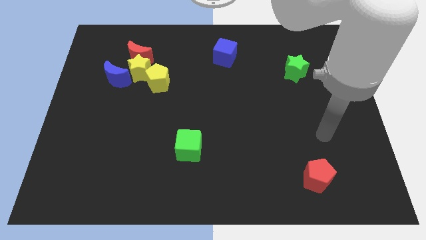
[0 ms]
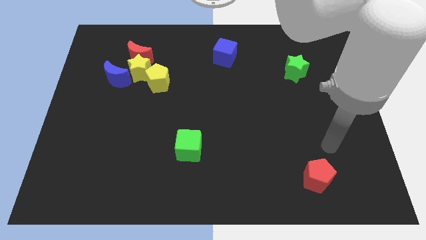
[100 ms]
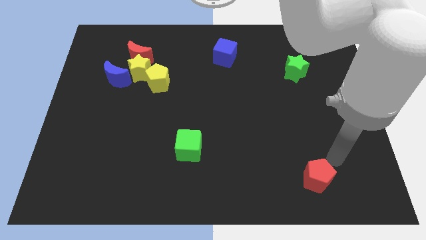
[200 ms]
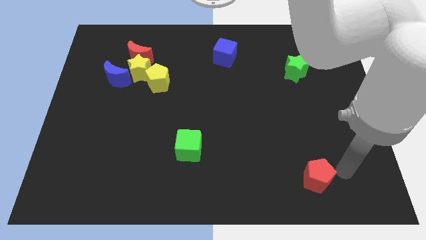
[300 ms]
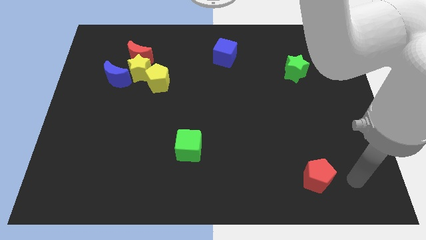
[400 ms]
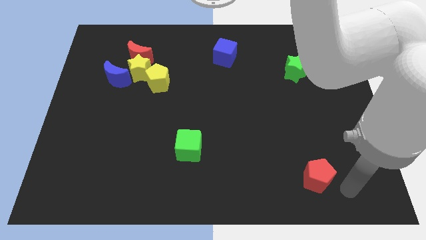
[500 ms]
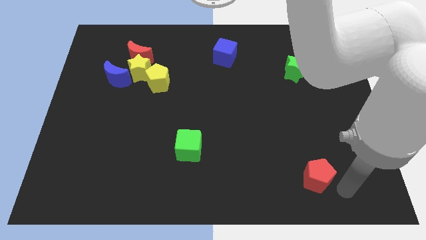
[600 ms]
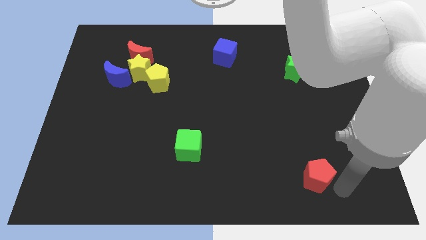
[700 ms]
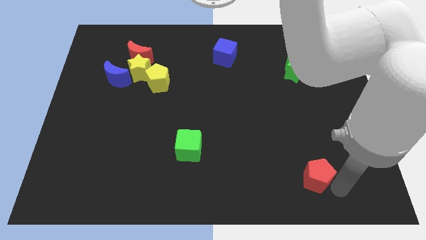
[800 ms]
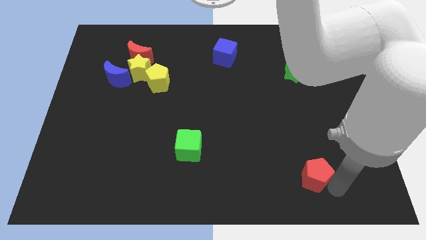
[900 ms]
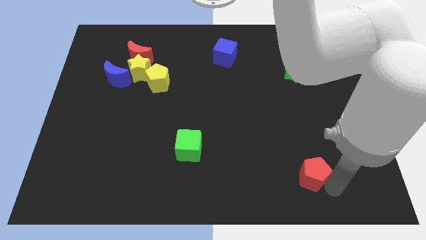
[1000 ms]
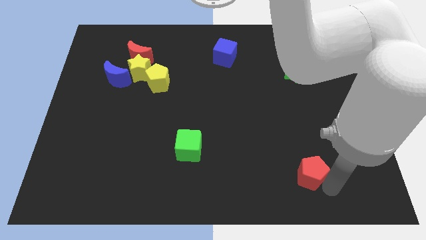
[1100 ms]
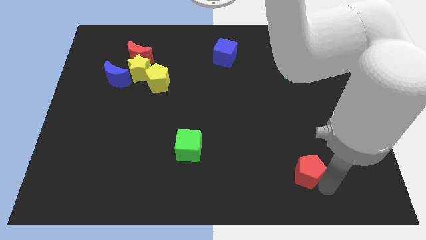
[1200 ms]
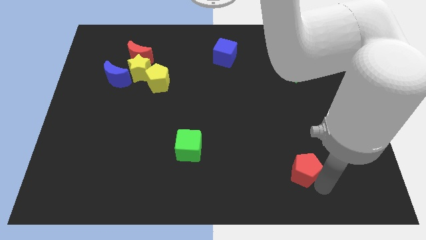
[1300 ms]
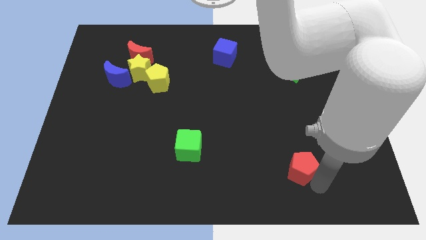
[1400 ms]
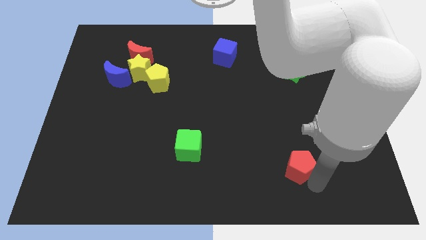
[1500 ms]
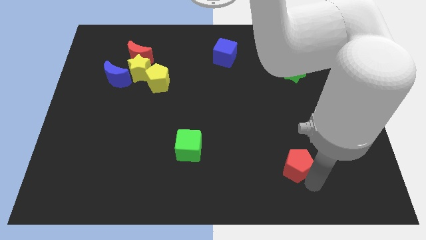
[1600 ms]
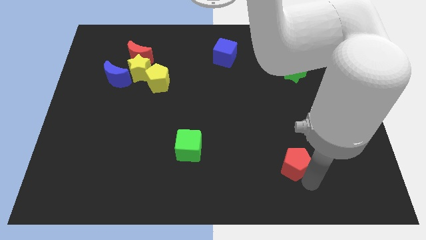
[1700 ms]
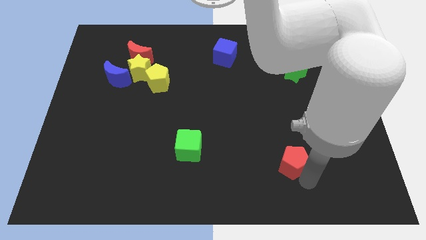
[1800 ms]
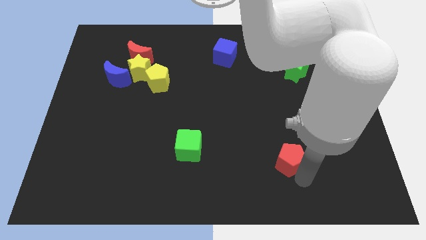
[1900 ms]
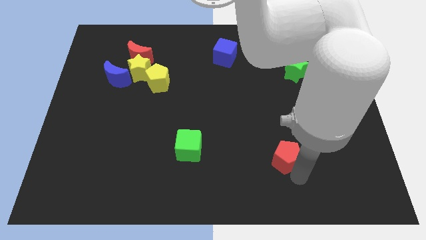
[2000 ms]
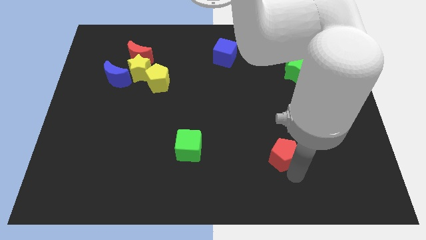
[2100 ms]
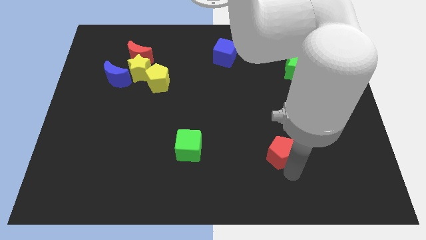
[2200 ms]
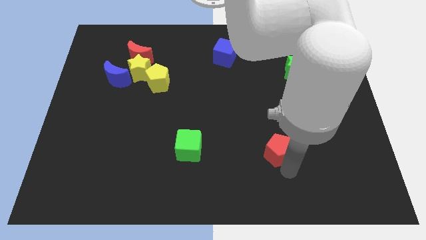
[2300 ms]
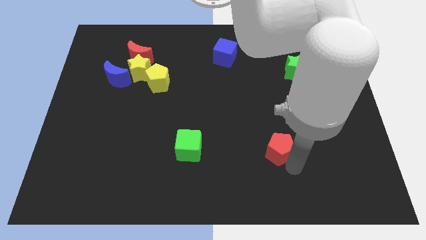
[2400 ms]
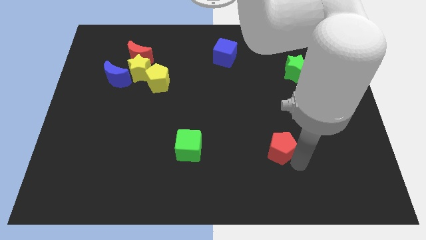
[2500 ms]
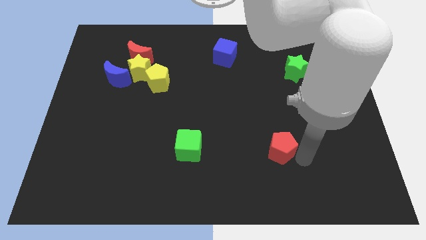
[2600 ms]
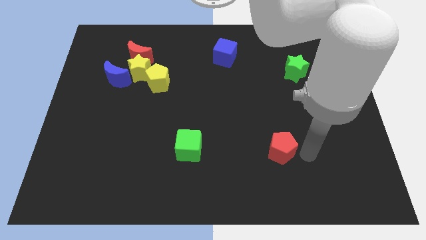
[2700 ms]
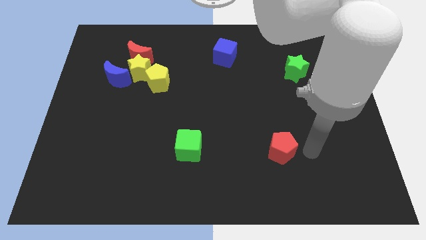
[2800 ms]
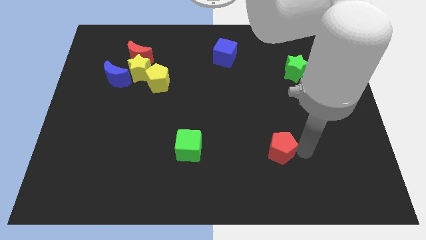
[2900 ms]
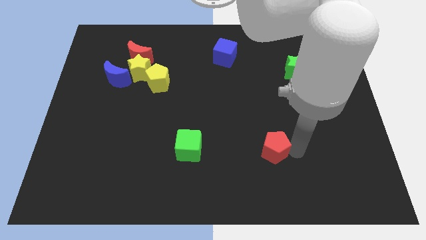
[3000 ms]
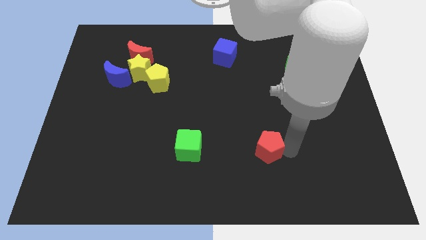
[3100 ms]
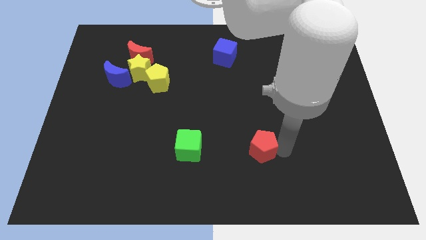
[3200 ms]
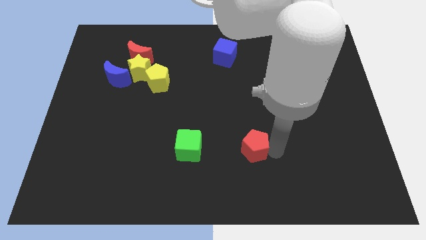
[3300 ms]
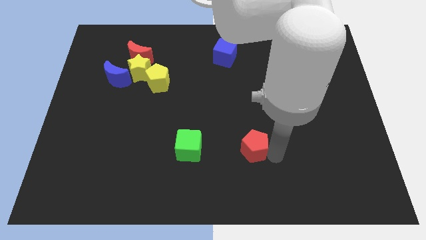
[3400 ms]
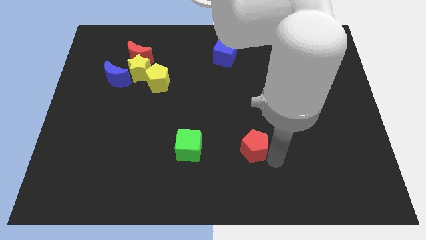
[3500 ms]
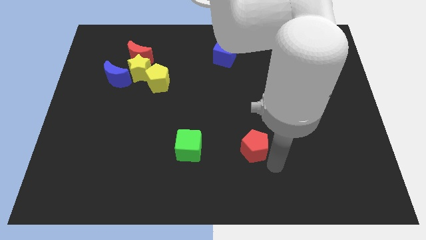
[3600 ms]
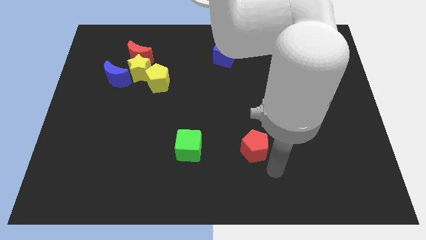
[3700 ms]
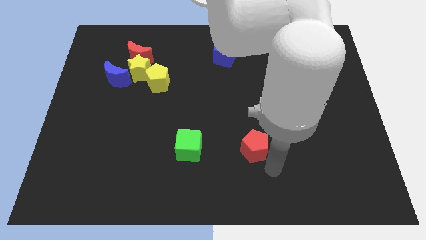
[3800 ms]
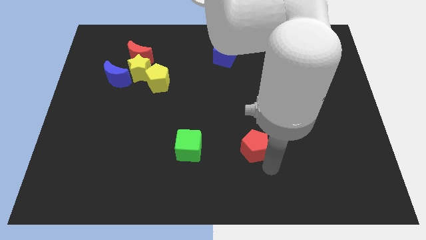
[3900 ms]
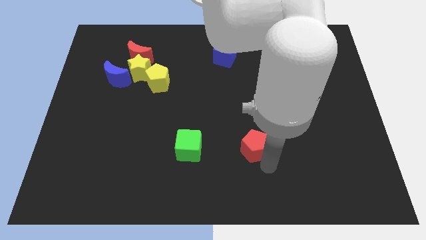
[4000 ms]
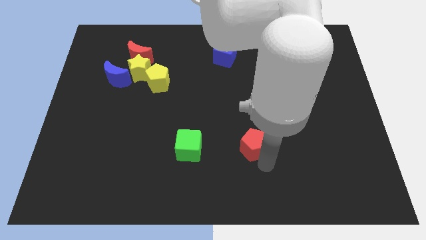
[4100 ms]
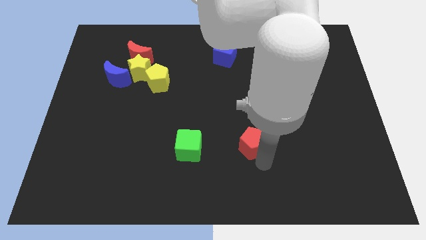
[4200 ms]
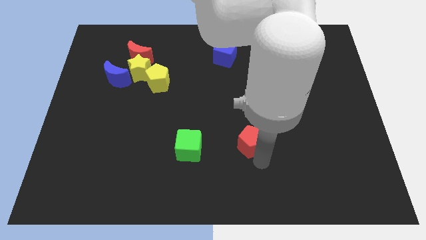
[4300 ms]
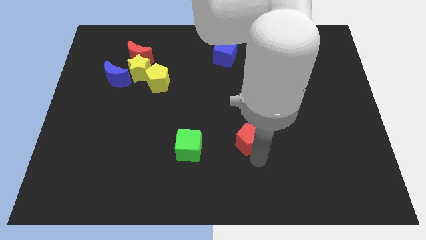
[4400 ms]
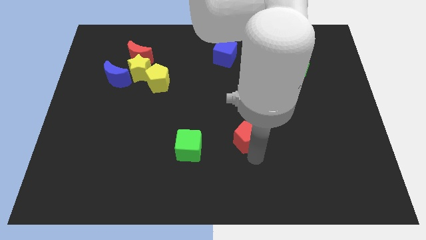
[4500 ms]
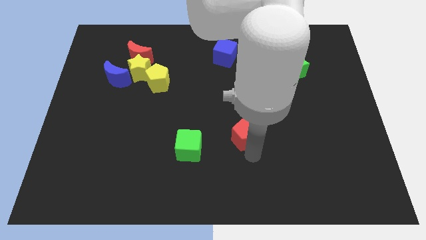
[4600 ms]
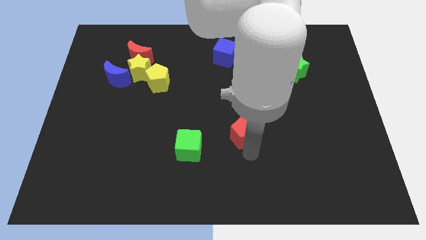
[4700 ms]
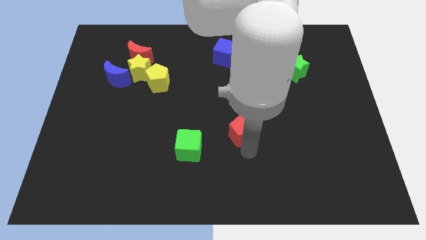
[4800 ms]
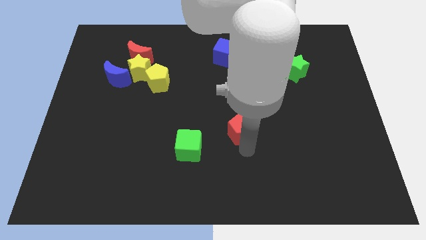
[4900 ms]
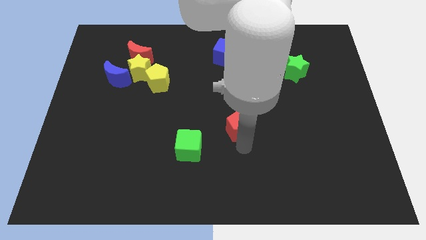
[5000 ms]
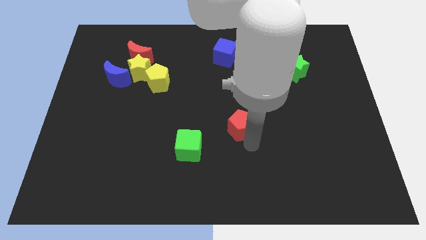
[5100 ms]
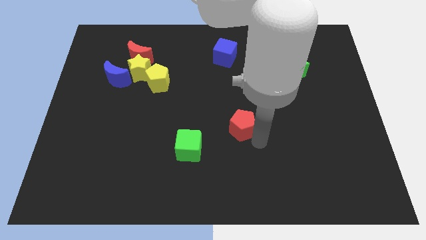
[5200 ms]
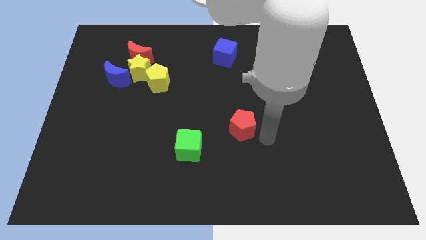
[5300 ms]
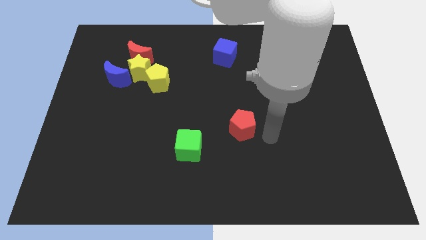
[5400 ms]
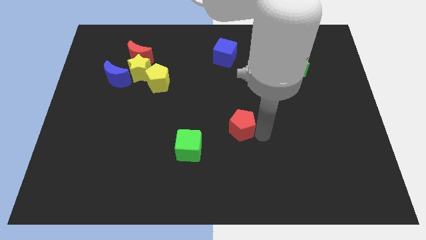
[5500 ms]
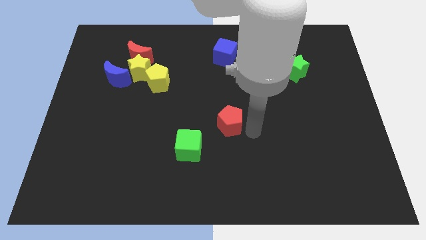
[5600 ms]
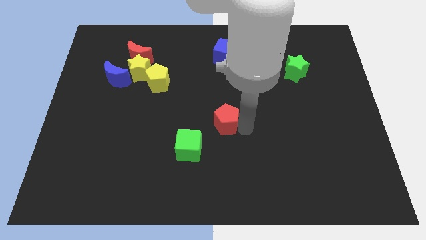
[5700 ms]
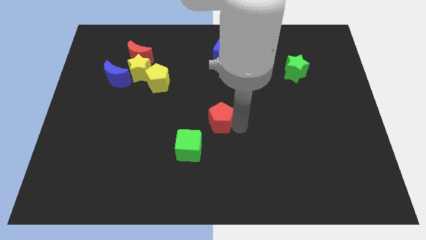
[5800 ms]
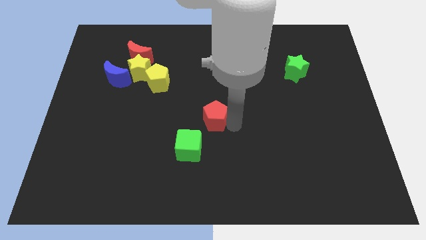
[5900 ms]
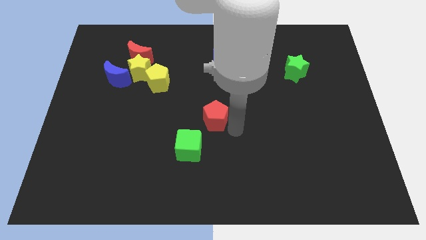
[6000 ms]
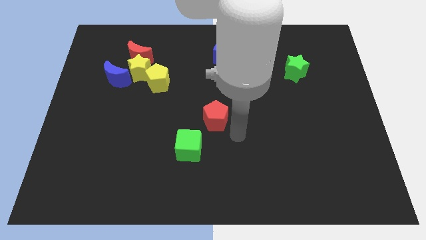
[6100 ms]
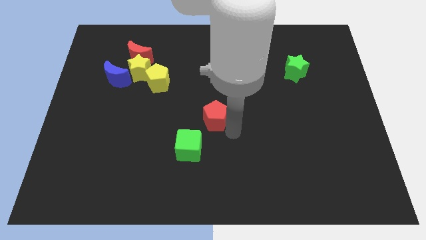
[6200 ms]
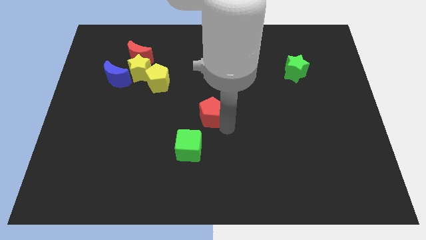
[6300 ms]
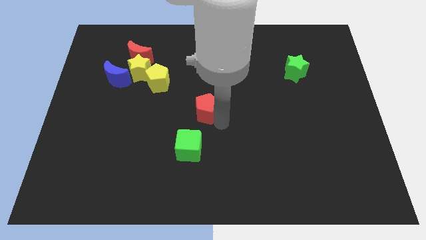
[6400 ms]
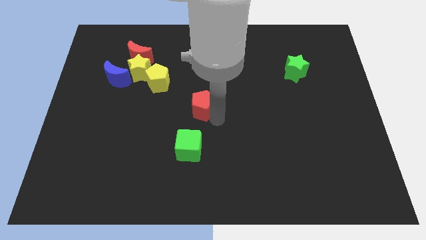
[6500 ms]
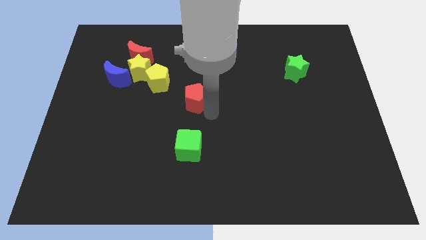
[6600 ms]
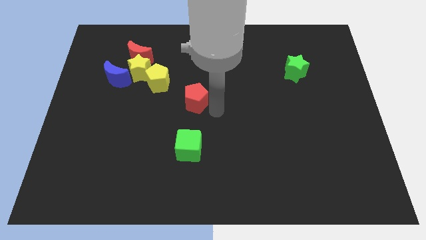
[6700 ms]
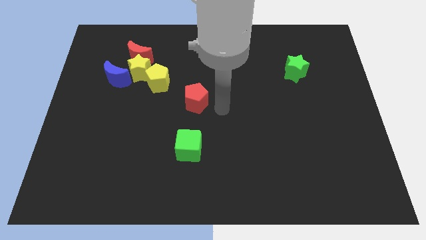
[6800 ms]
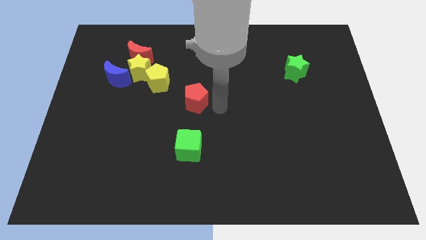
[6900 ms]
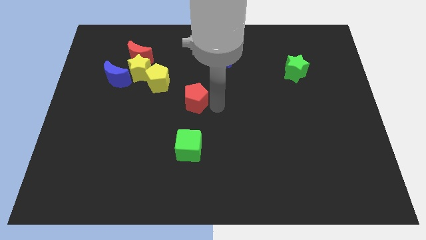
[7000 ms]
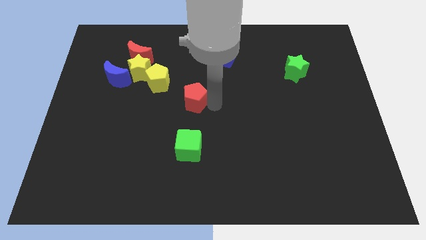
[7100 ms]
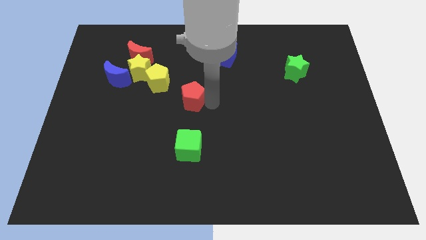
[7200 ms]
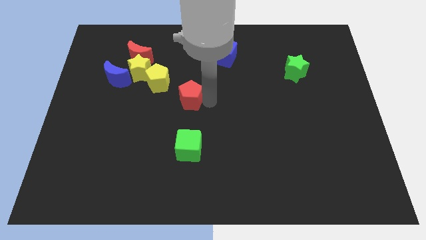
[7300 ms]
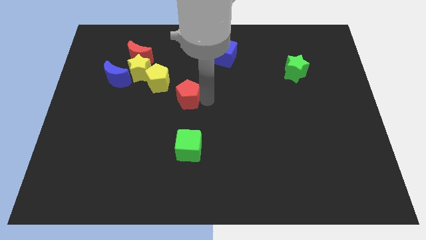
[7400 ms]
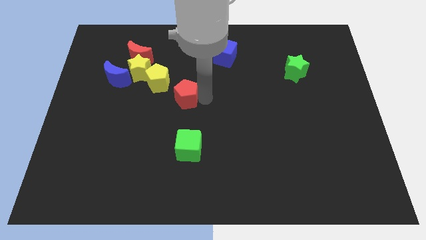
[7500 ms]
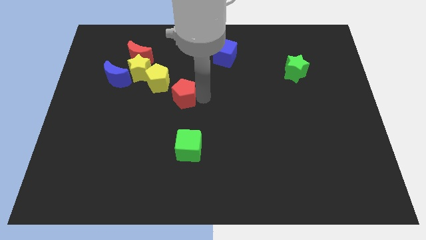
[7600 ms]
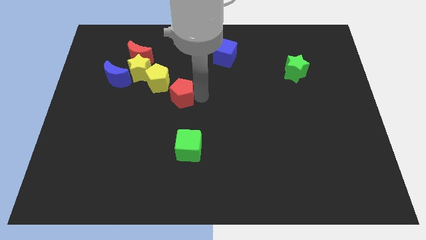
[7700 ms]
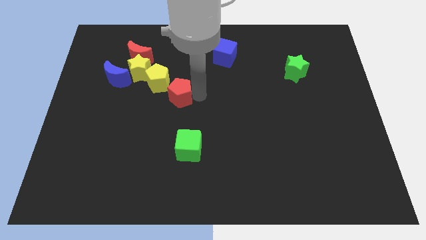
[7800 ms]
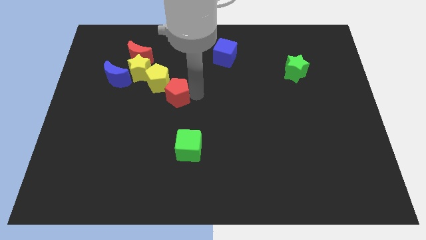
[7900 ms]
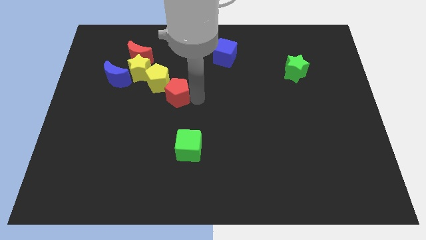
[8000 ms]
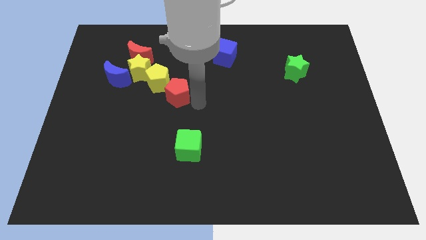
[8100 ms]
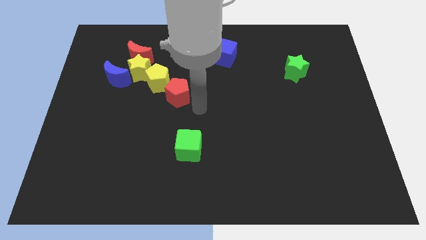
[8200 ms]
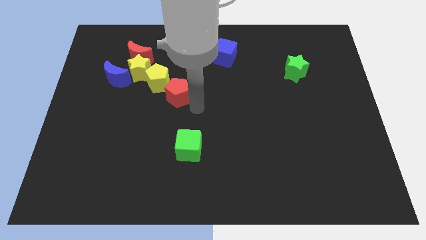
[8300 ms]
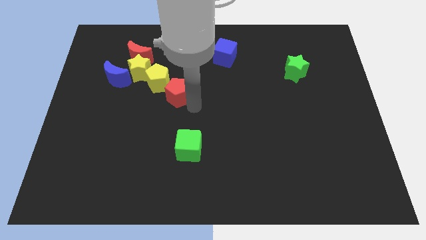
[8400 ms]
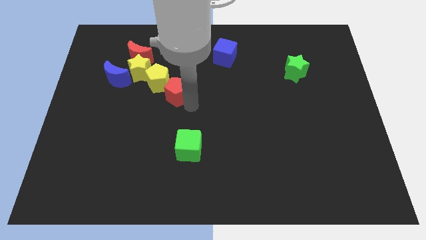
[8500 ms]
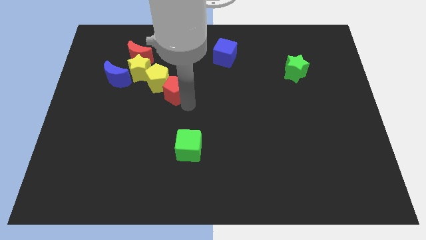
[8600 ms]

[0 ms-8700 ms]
slide the red pentagon next to the yellow pentagon
